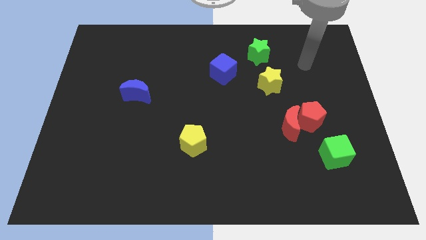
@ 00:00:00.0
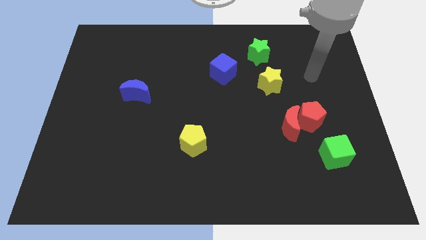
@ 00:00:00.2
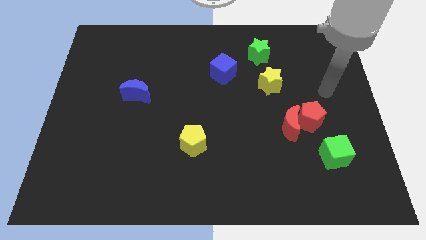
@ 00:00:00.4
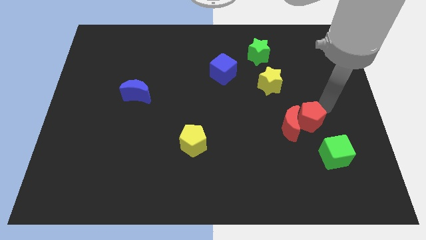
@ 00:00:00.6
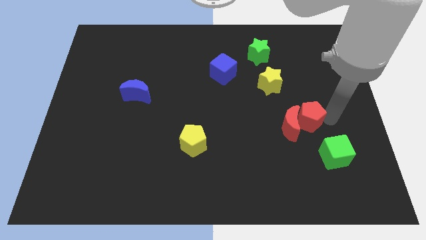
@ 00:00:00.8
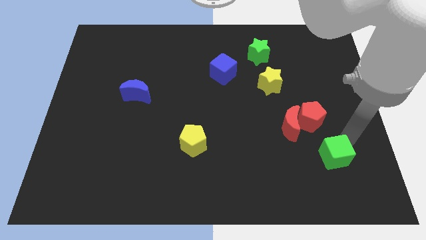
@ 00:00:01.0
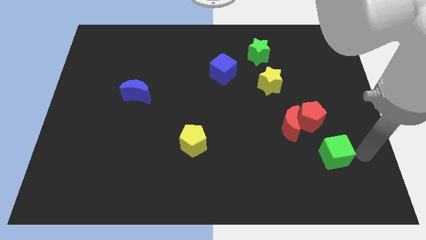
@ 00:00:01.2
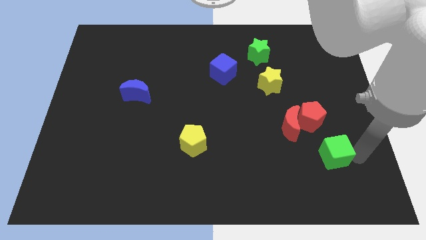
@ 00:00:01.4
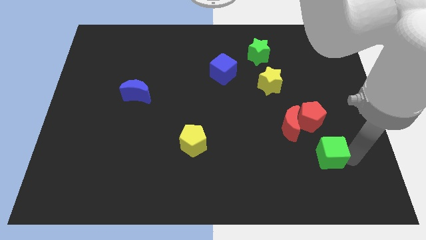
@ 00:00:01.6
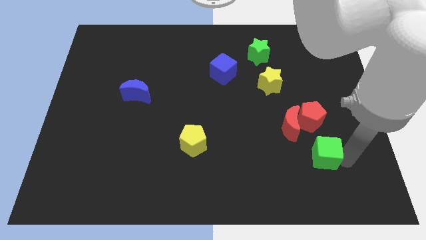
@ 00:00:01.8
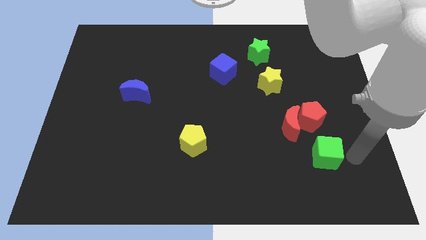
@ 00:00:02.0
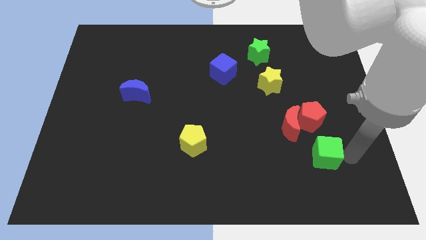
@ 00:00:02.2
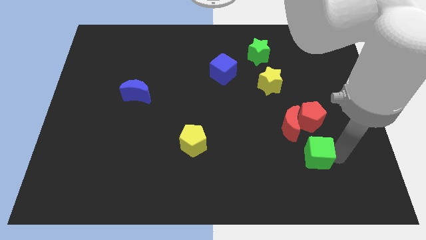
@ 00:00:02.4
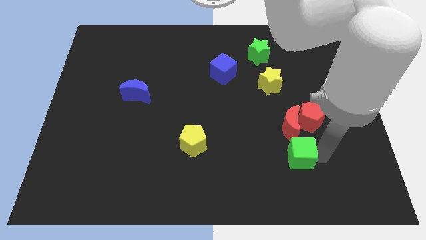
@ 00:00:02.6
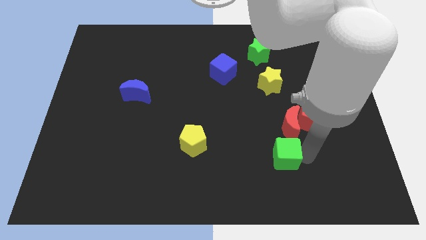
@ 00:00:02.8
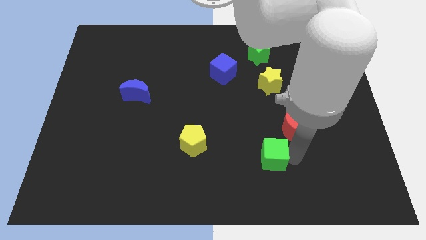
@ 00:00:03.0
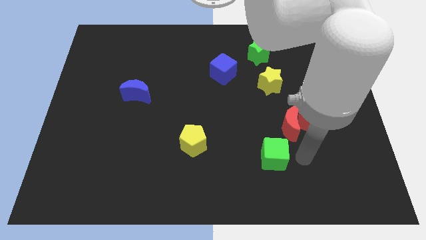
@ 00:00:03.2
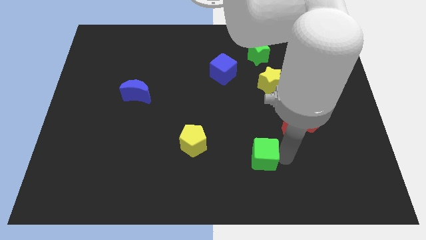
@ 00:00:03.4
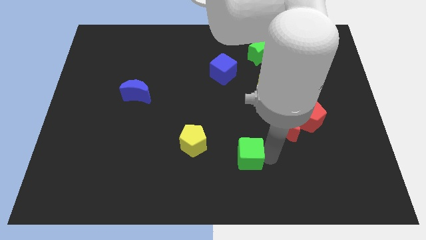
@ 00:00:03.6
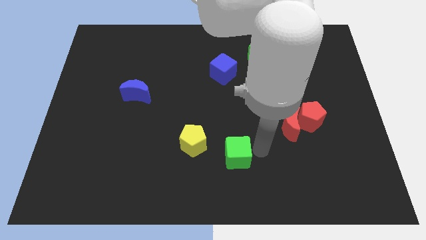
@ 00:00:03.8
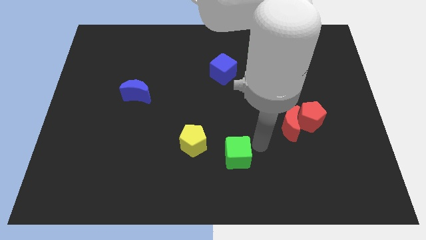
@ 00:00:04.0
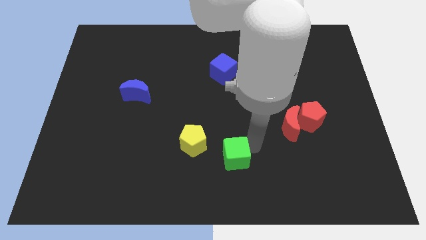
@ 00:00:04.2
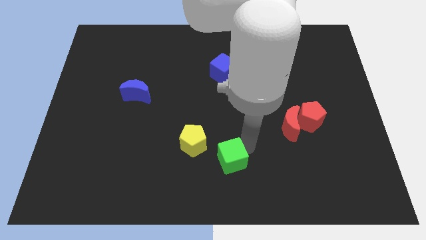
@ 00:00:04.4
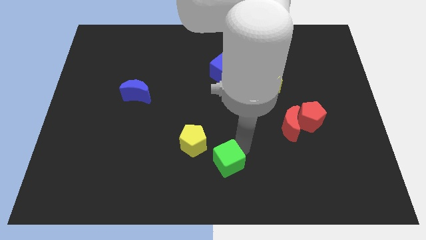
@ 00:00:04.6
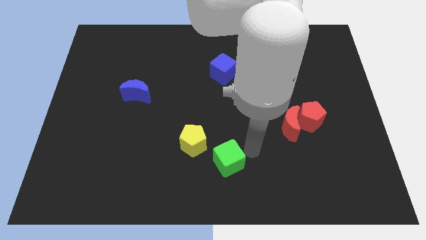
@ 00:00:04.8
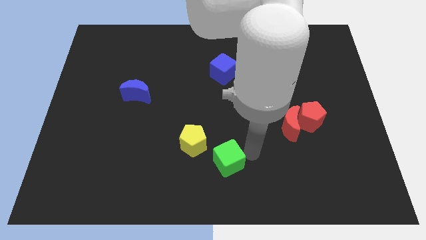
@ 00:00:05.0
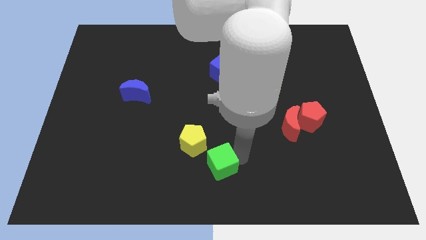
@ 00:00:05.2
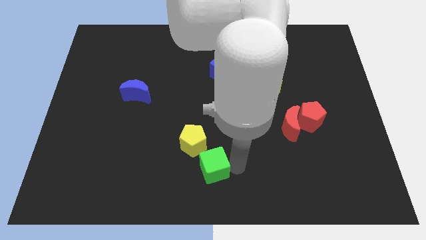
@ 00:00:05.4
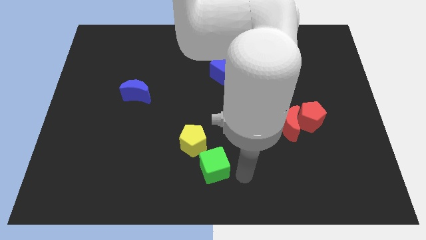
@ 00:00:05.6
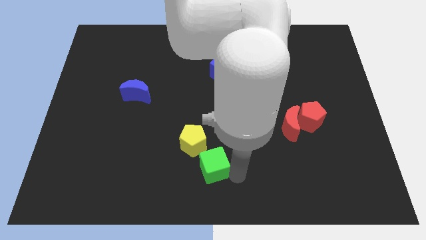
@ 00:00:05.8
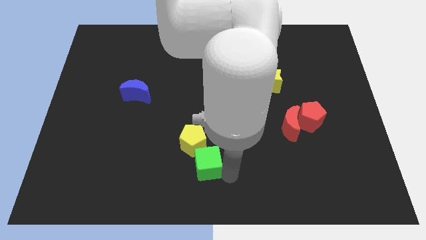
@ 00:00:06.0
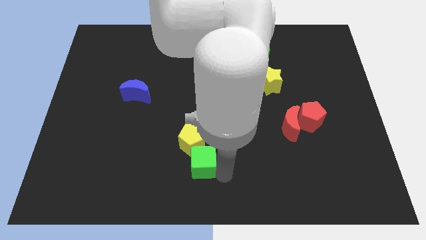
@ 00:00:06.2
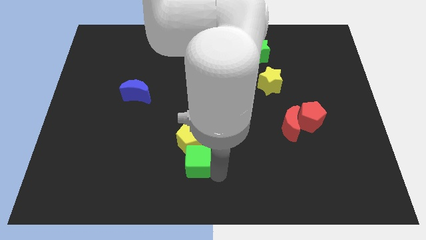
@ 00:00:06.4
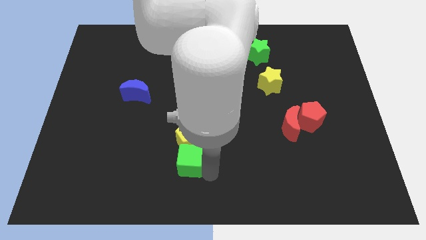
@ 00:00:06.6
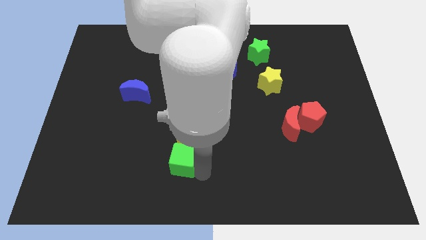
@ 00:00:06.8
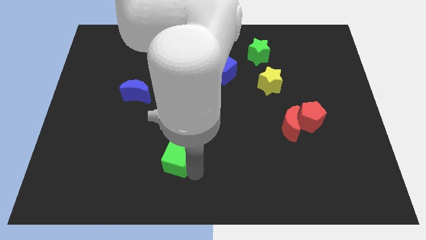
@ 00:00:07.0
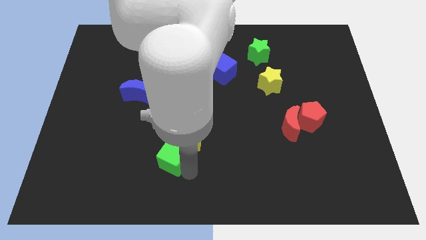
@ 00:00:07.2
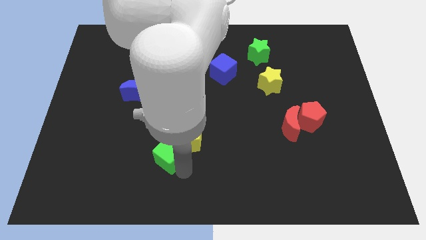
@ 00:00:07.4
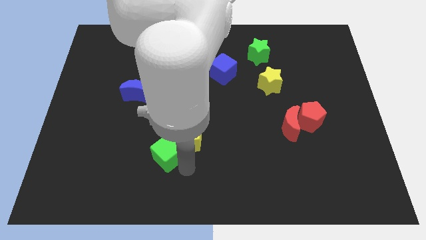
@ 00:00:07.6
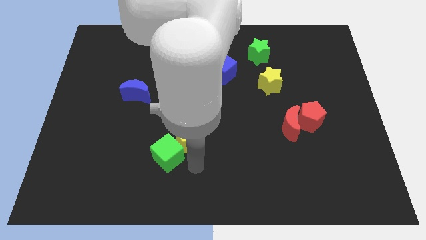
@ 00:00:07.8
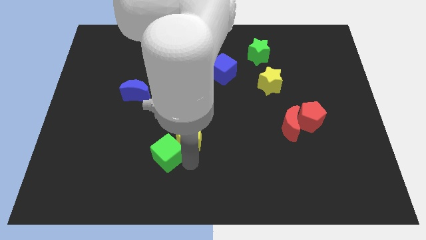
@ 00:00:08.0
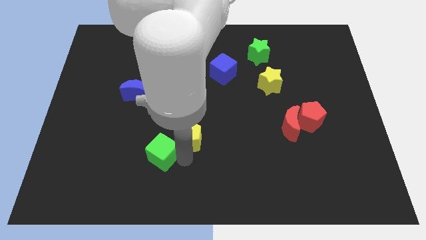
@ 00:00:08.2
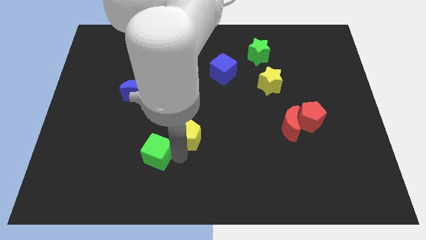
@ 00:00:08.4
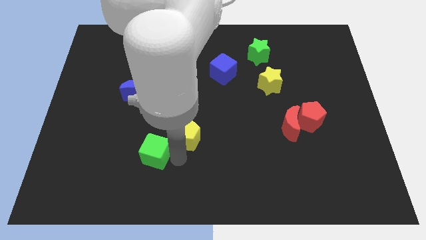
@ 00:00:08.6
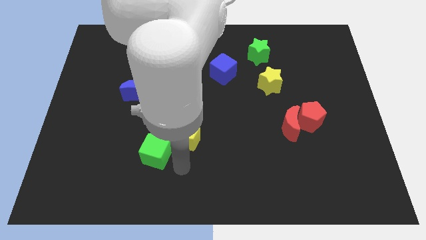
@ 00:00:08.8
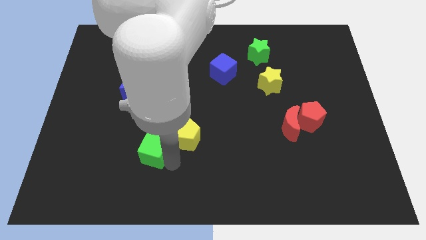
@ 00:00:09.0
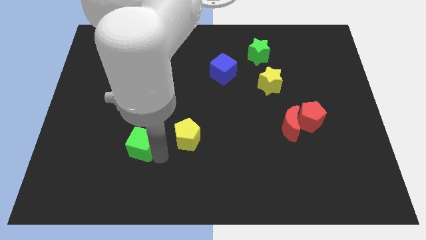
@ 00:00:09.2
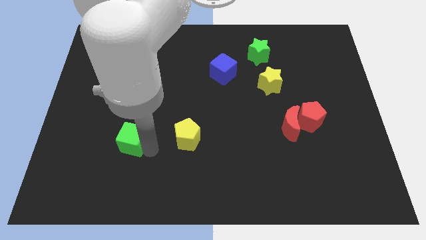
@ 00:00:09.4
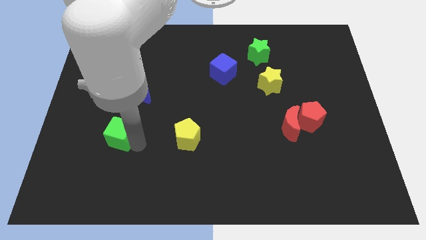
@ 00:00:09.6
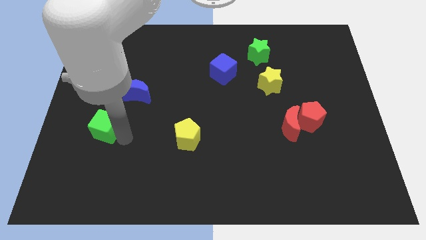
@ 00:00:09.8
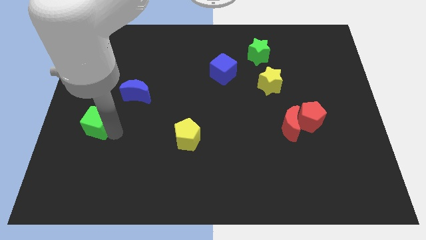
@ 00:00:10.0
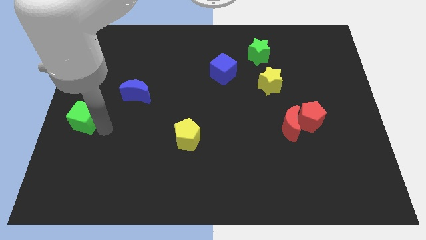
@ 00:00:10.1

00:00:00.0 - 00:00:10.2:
put the green cube to the left side

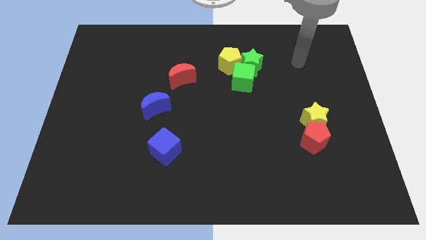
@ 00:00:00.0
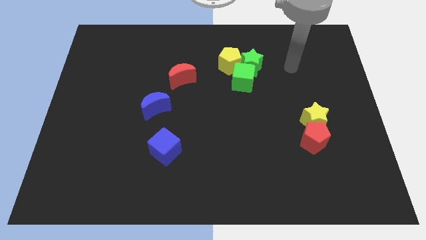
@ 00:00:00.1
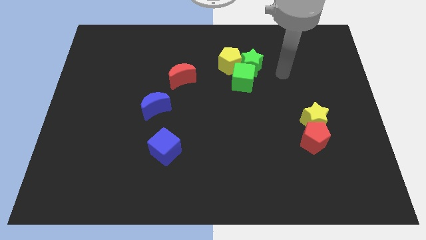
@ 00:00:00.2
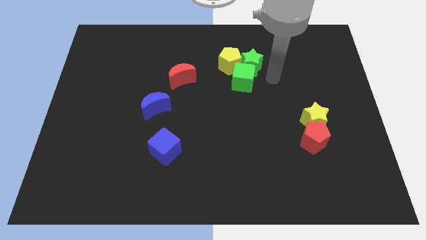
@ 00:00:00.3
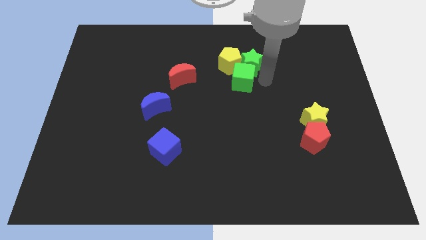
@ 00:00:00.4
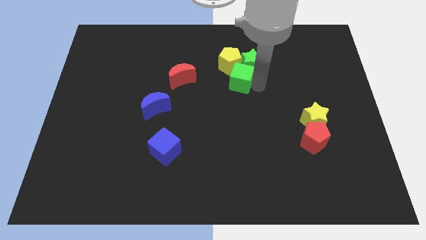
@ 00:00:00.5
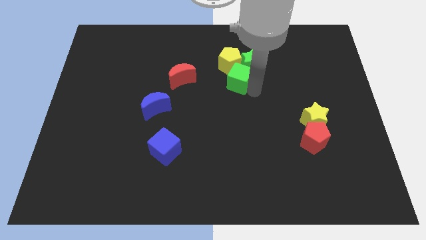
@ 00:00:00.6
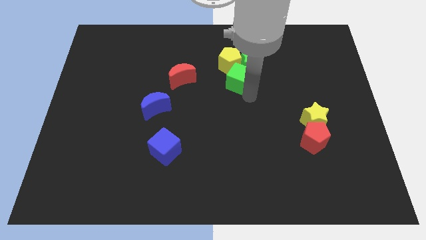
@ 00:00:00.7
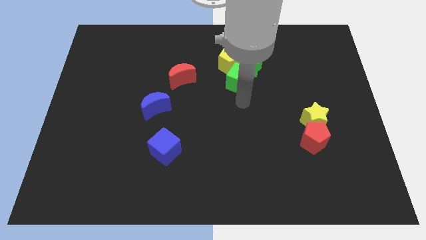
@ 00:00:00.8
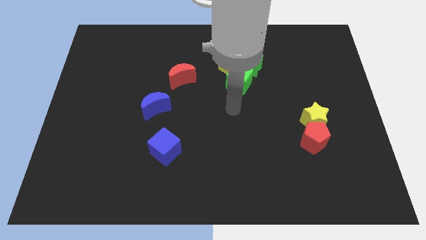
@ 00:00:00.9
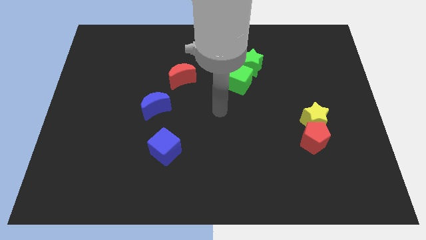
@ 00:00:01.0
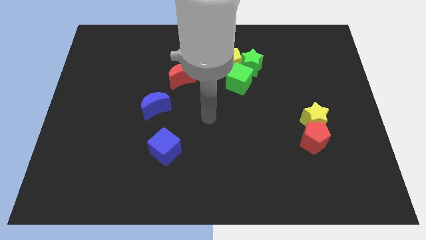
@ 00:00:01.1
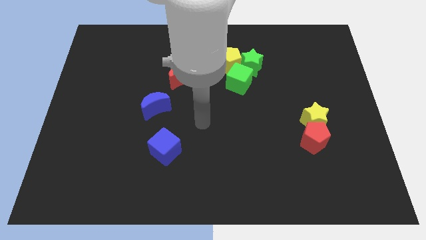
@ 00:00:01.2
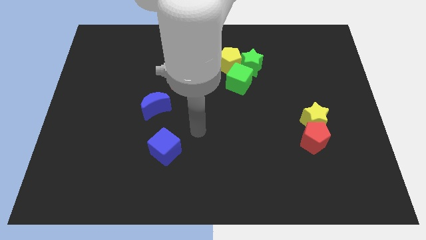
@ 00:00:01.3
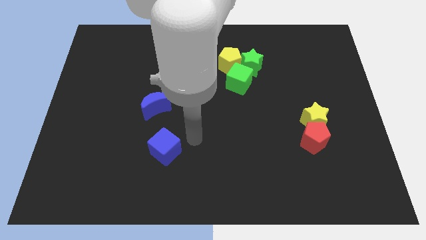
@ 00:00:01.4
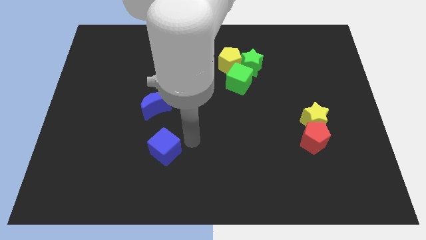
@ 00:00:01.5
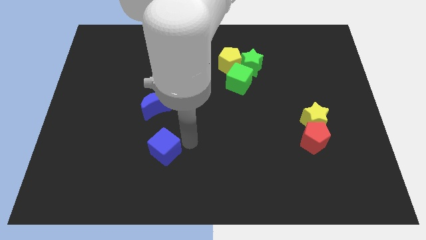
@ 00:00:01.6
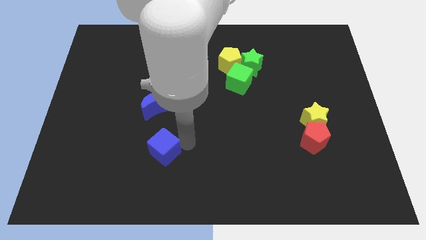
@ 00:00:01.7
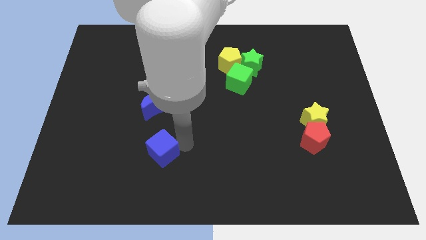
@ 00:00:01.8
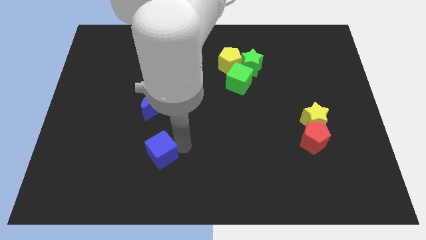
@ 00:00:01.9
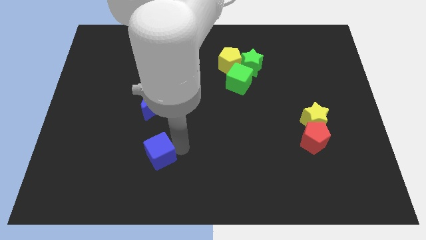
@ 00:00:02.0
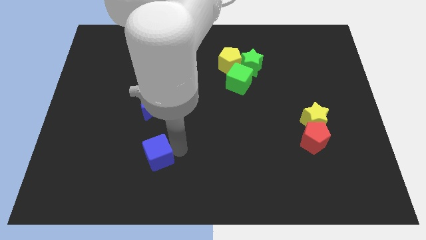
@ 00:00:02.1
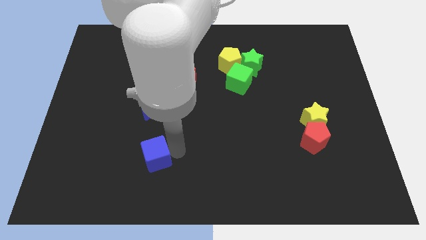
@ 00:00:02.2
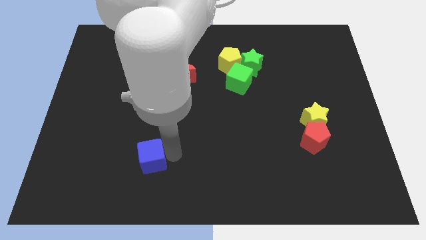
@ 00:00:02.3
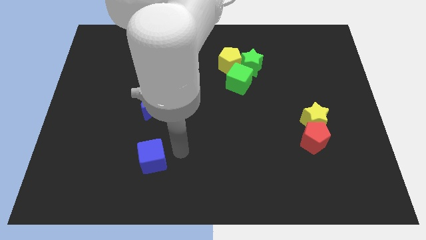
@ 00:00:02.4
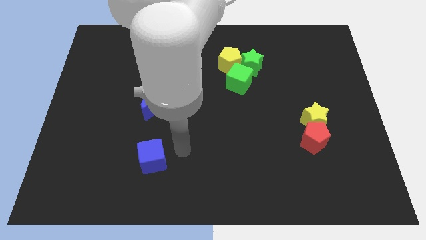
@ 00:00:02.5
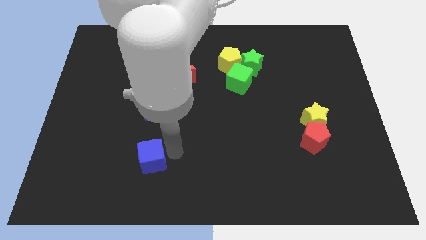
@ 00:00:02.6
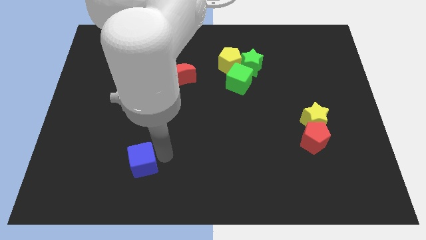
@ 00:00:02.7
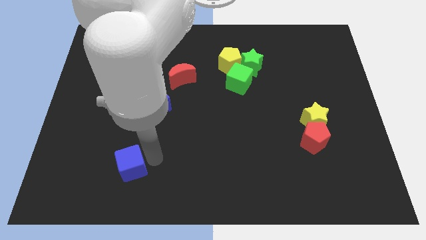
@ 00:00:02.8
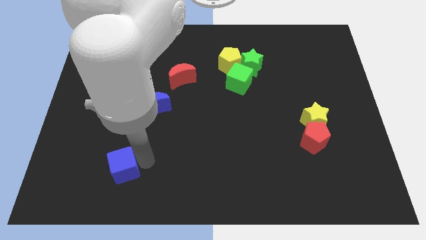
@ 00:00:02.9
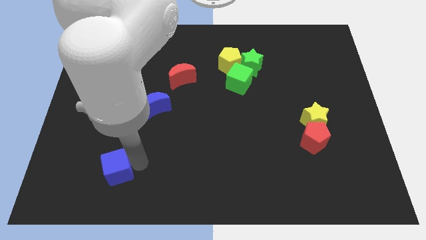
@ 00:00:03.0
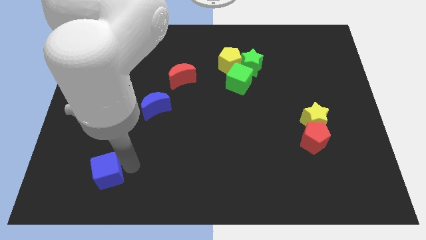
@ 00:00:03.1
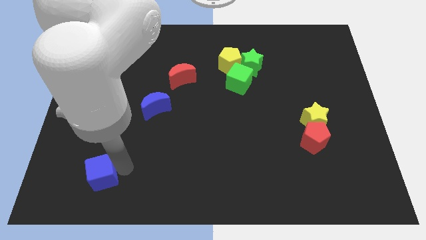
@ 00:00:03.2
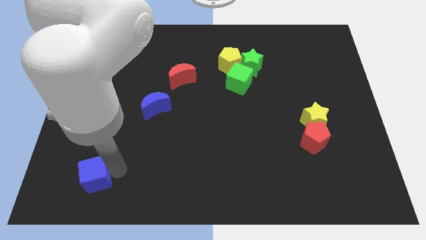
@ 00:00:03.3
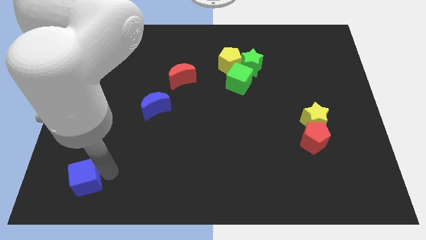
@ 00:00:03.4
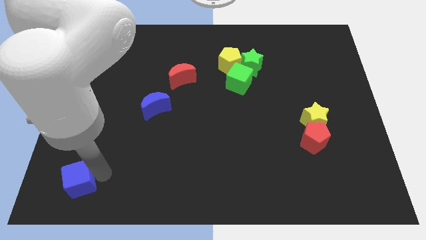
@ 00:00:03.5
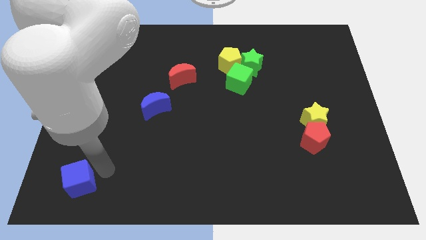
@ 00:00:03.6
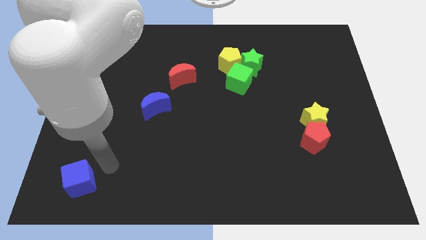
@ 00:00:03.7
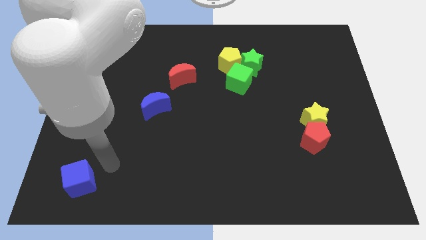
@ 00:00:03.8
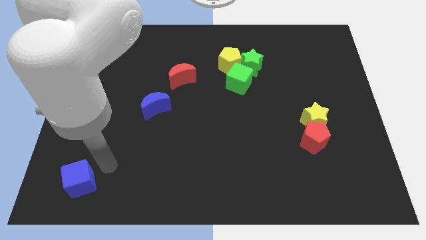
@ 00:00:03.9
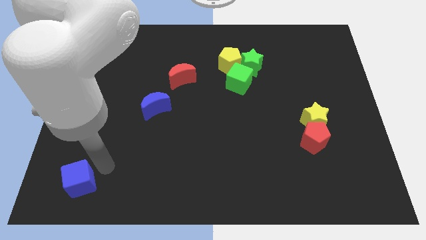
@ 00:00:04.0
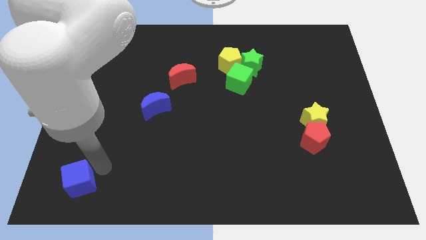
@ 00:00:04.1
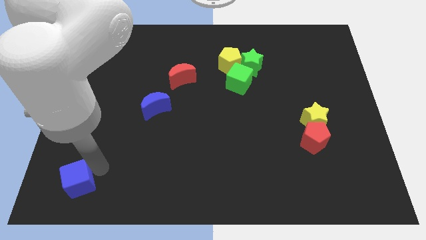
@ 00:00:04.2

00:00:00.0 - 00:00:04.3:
move the blue cube to the bottom left
